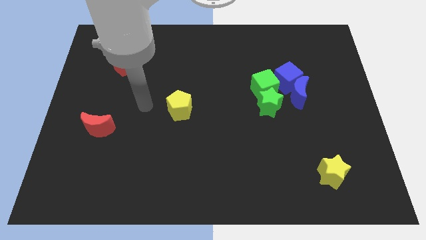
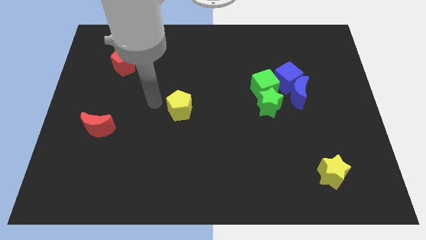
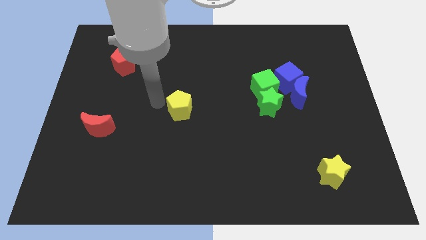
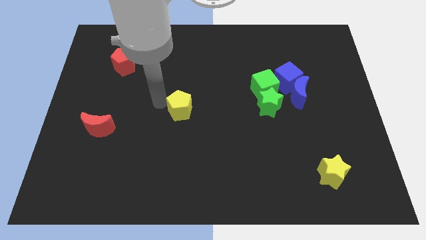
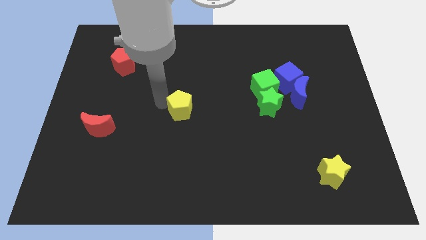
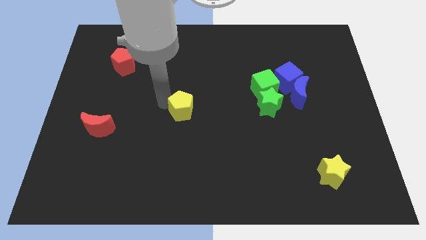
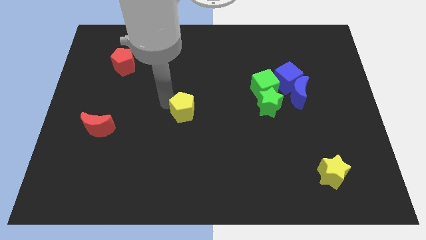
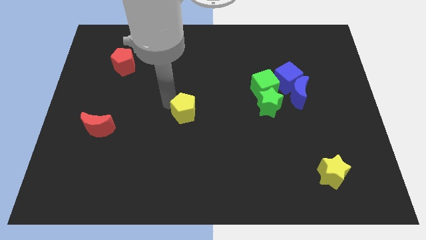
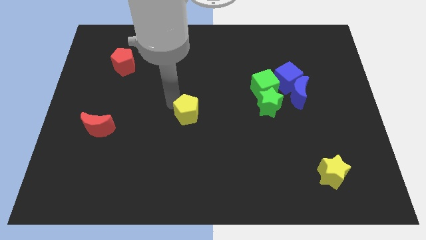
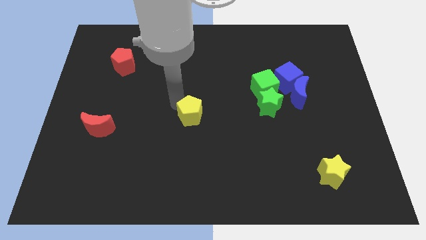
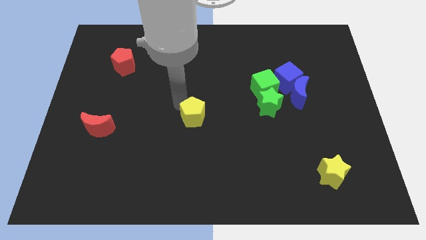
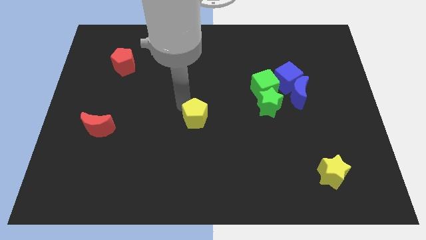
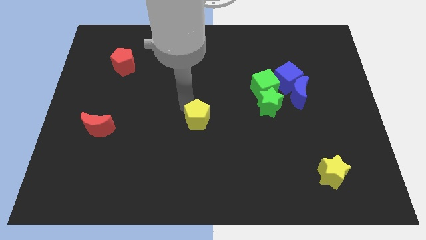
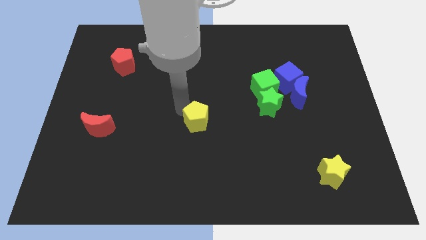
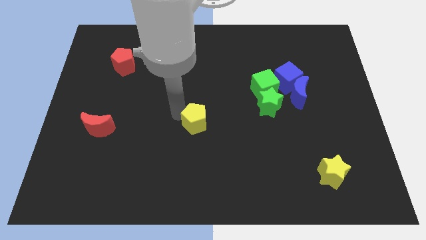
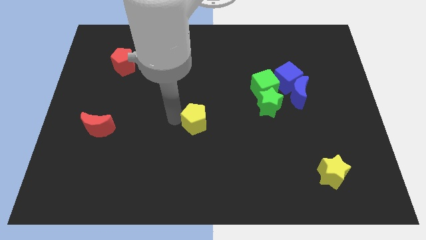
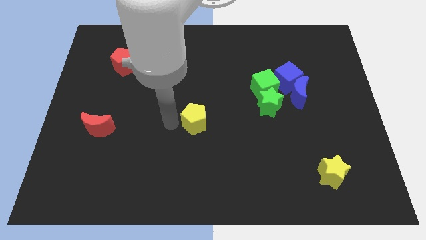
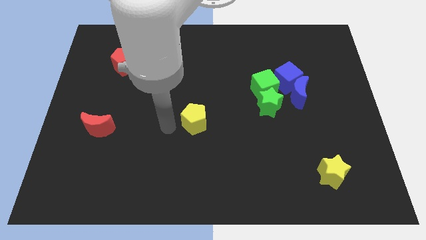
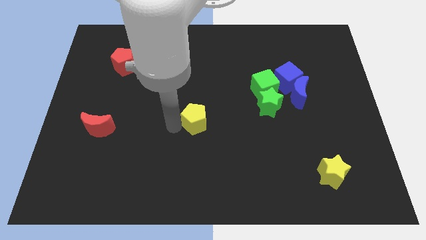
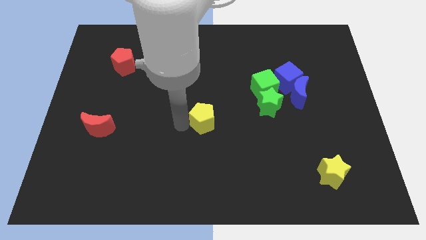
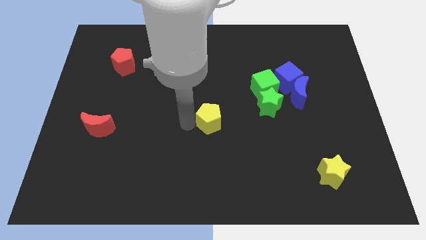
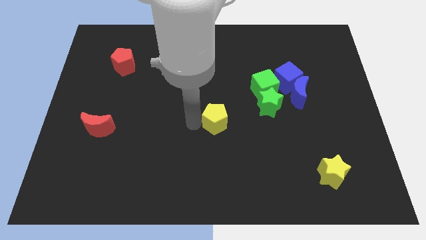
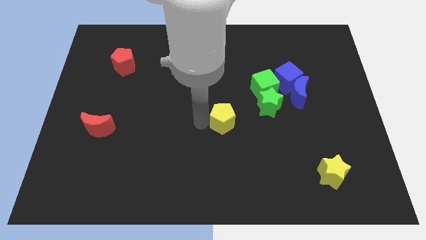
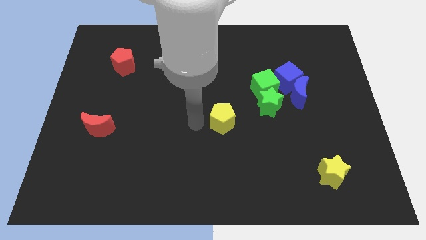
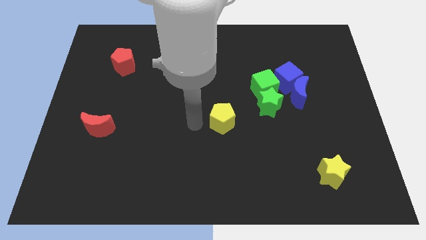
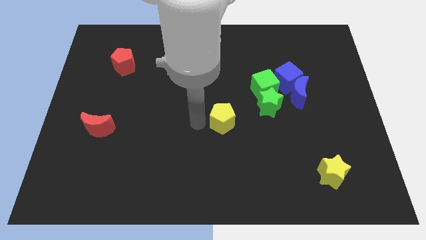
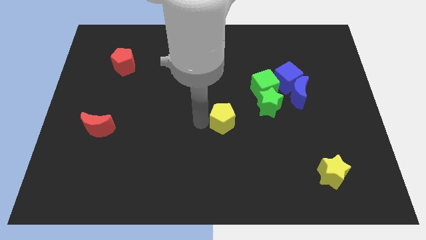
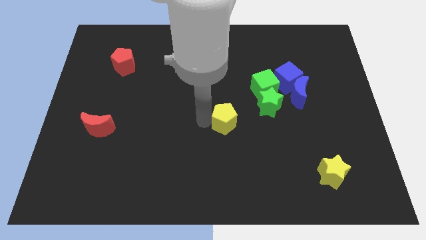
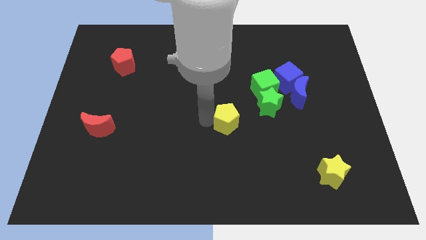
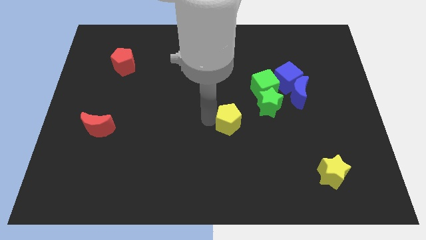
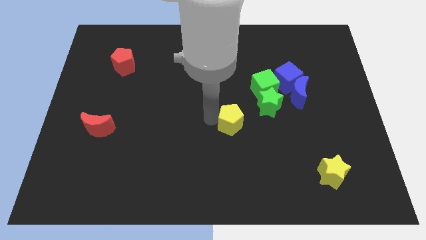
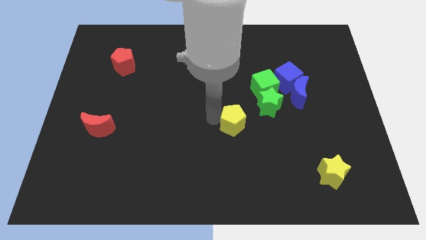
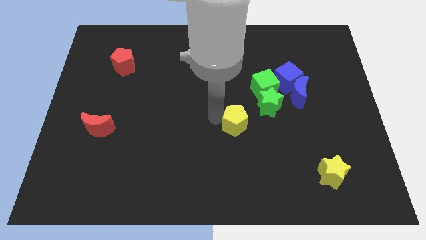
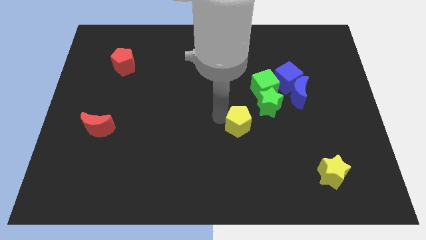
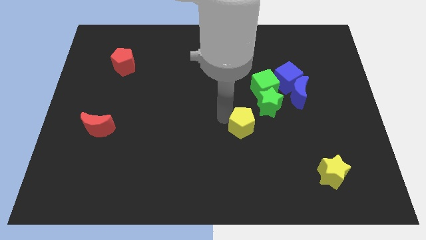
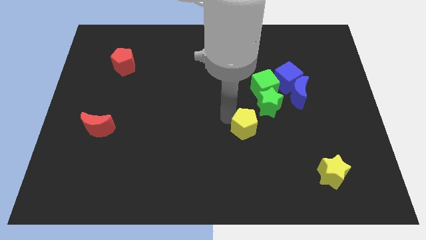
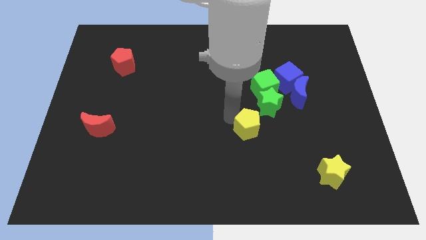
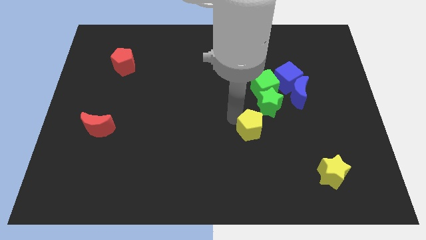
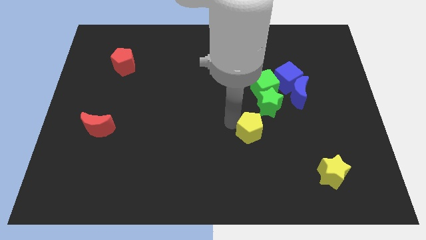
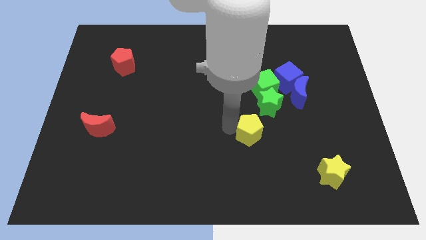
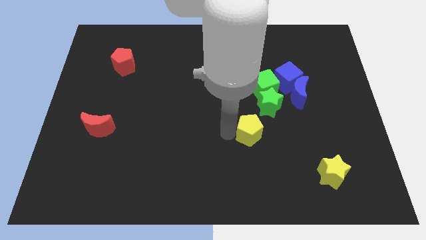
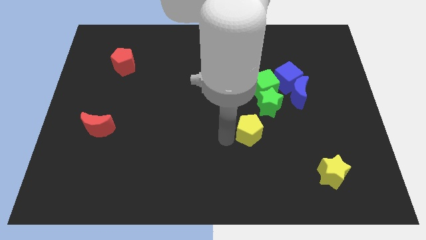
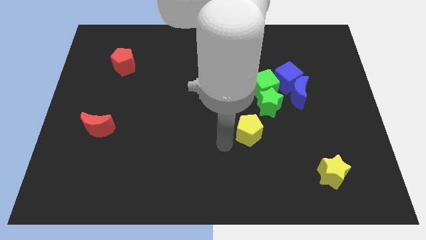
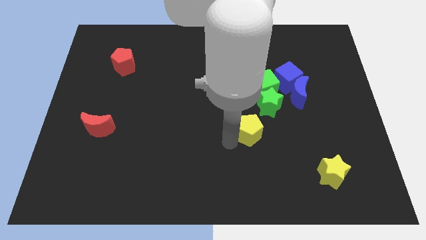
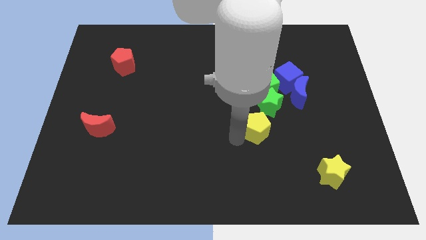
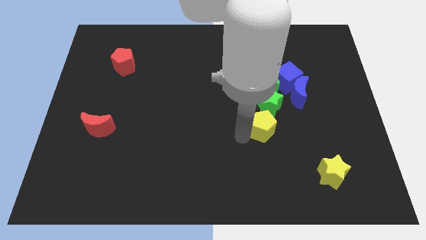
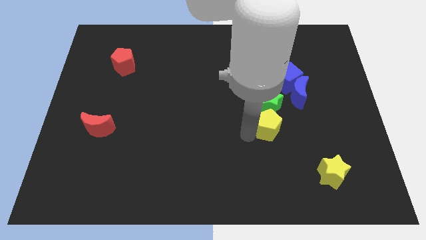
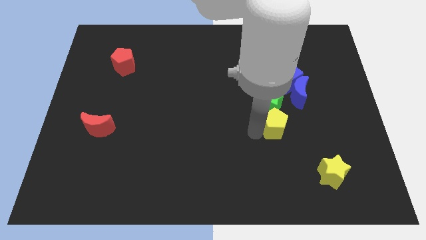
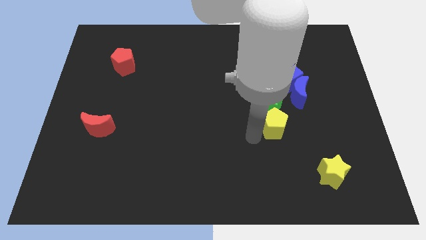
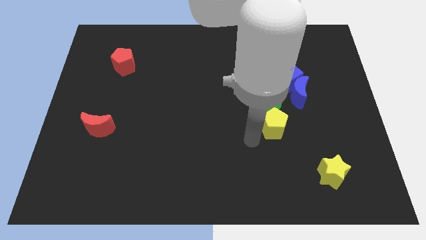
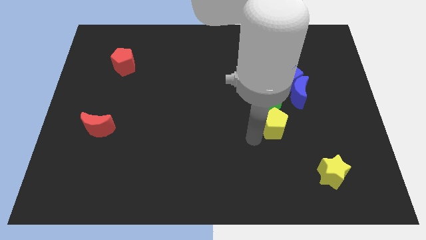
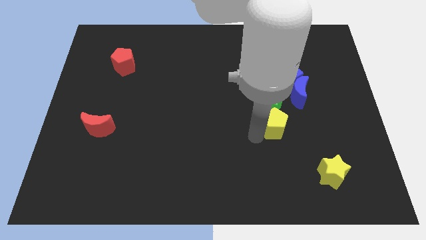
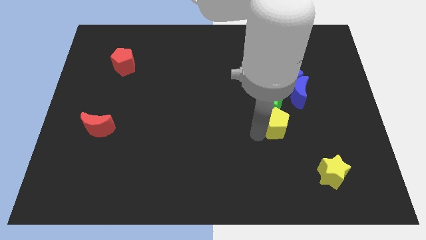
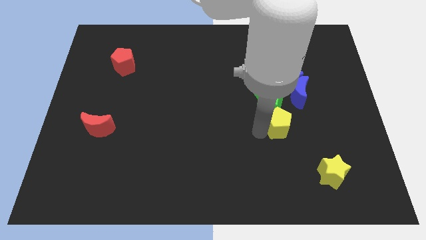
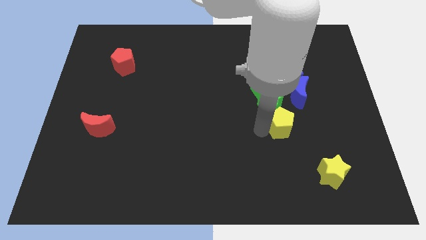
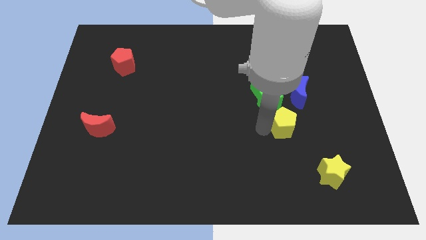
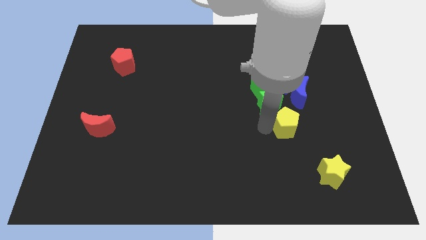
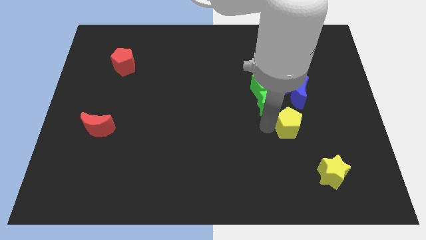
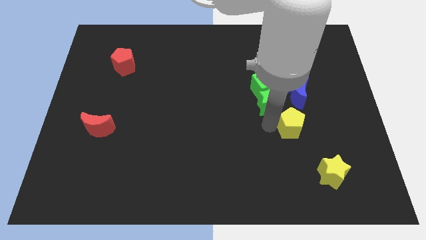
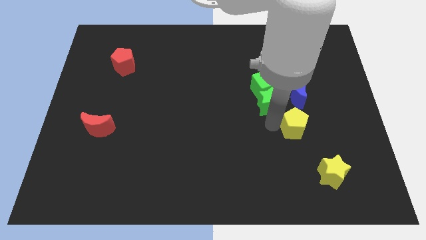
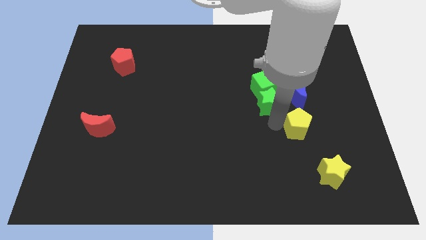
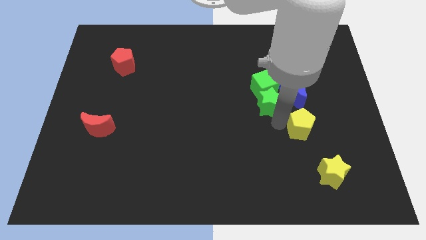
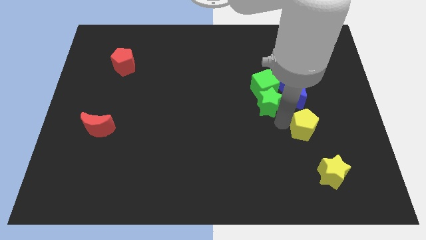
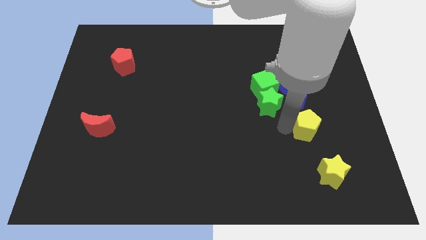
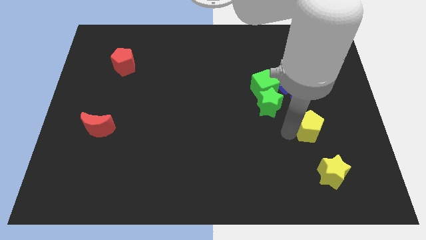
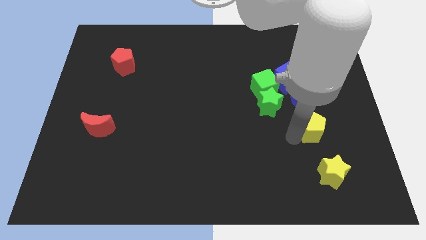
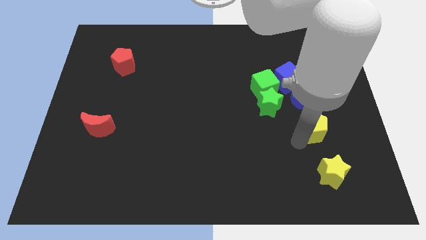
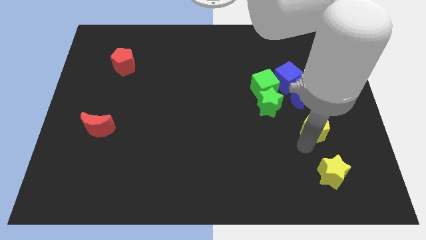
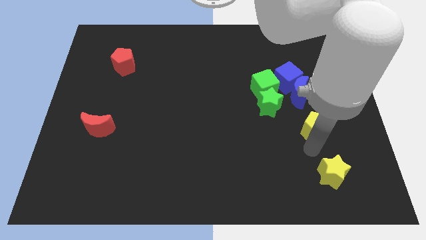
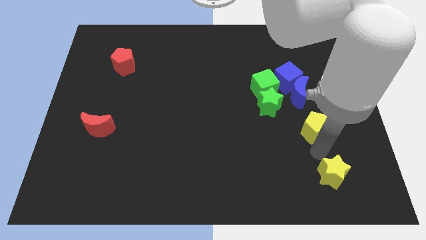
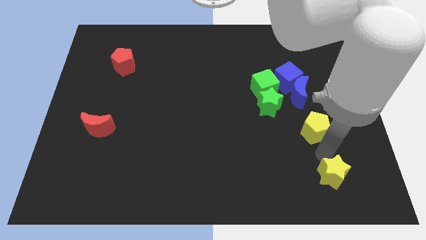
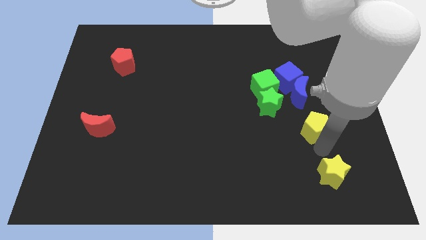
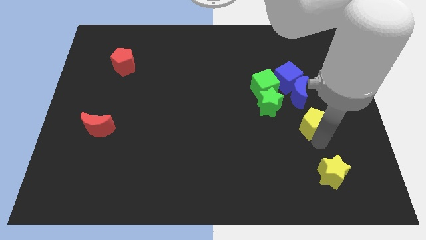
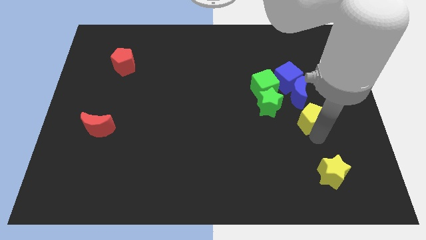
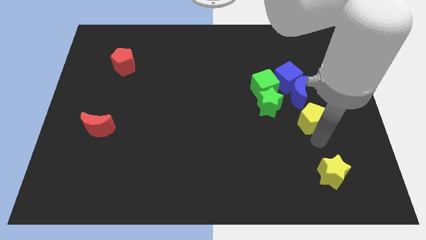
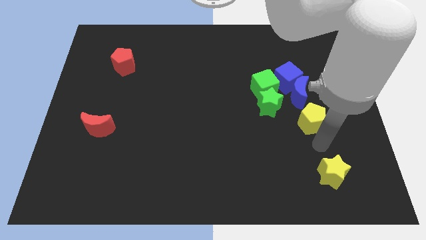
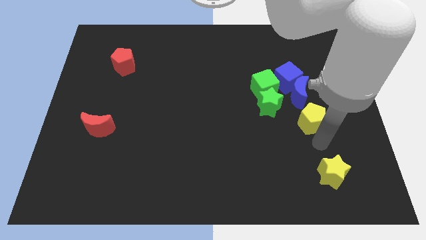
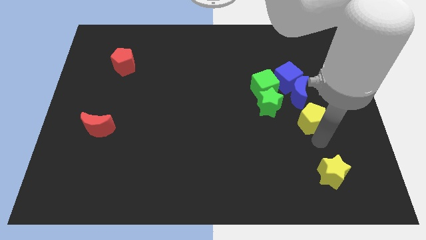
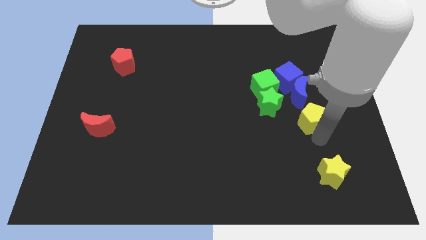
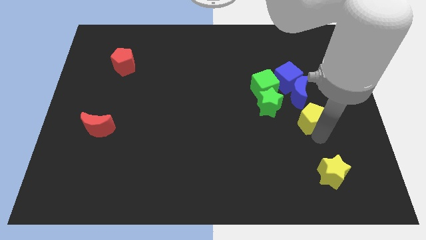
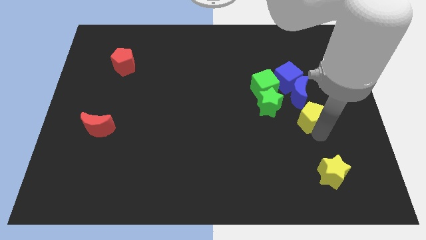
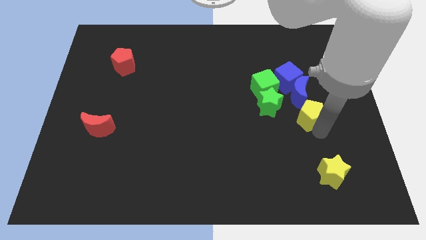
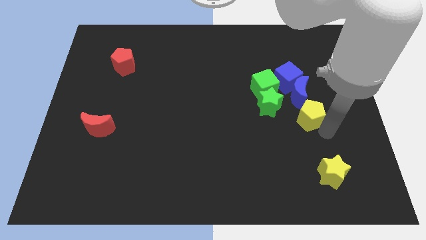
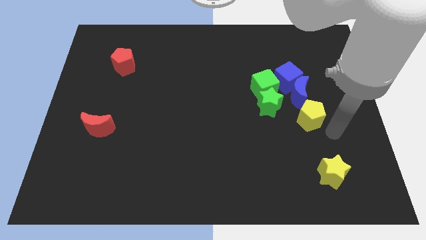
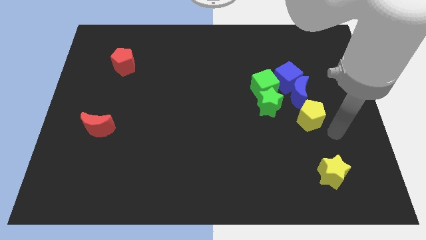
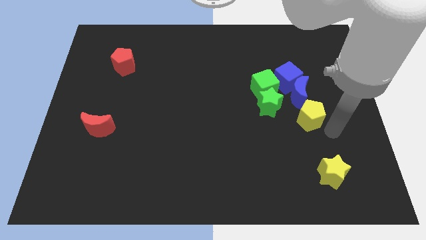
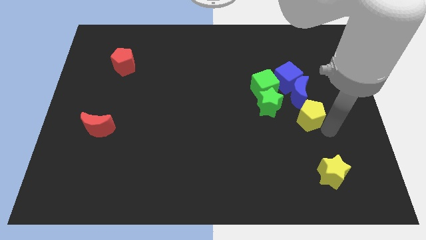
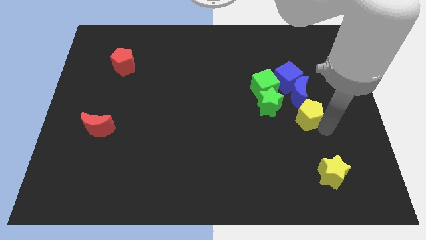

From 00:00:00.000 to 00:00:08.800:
move the yellow pentagon to the bottom right side of the green cube
